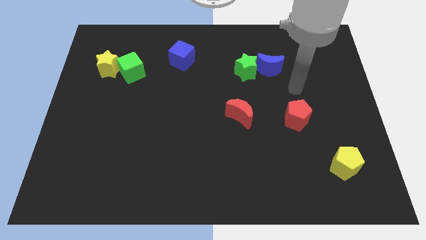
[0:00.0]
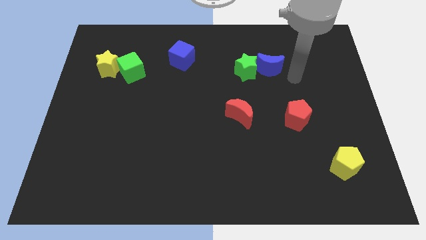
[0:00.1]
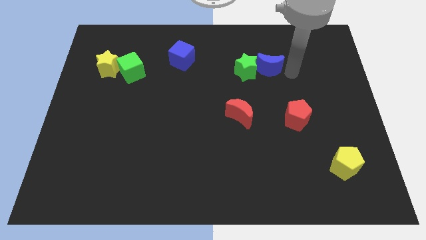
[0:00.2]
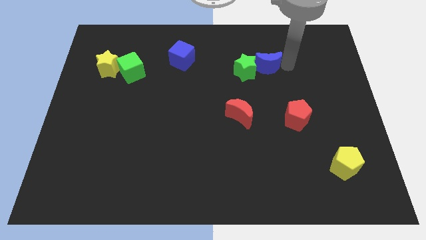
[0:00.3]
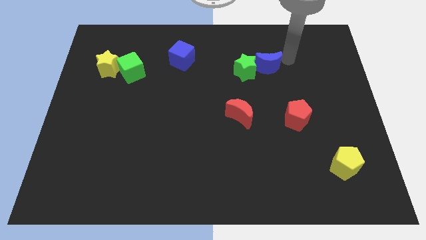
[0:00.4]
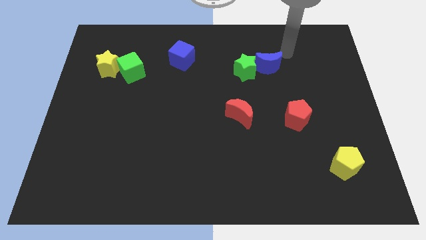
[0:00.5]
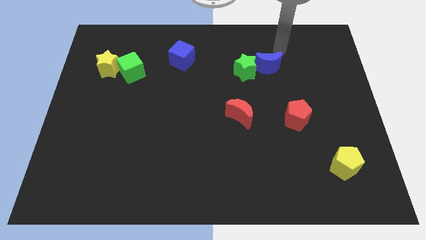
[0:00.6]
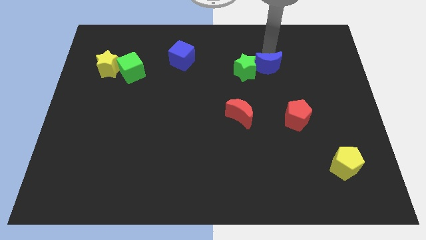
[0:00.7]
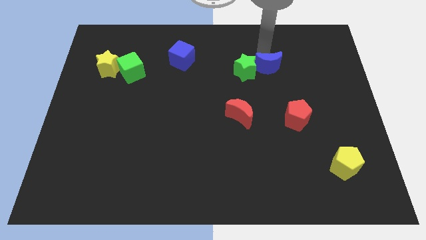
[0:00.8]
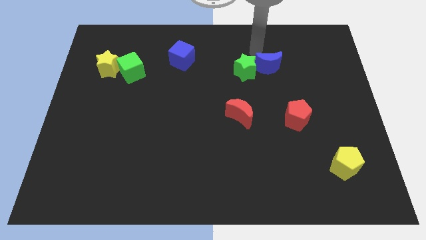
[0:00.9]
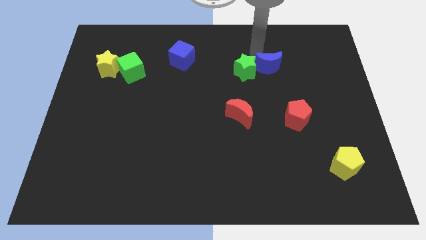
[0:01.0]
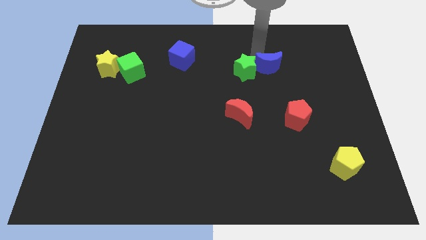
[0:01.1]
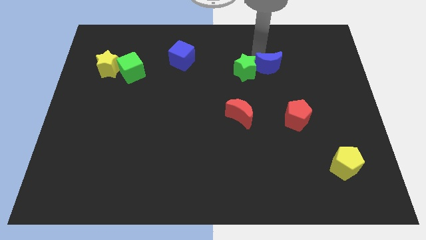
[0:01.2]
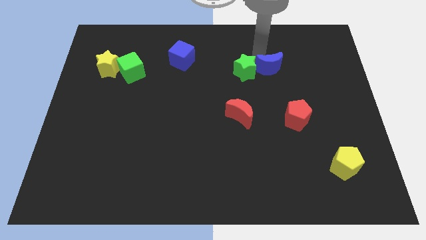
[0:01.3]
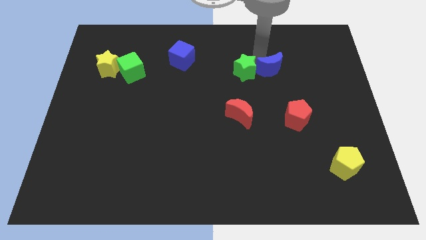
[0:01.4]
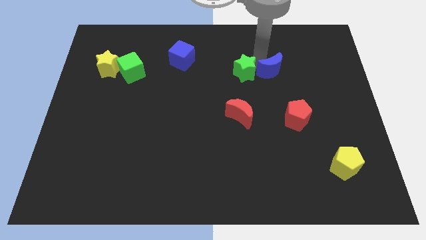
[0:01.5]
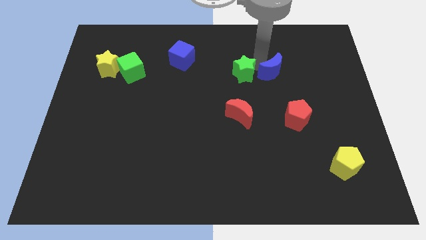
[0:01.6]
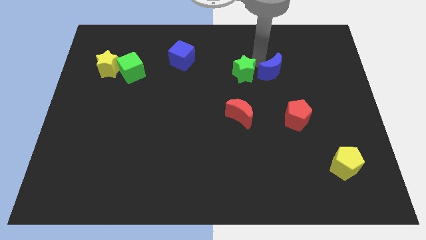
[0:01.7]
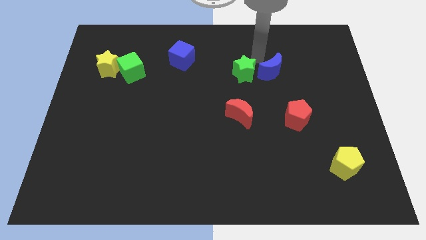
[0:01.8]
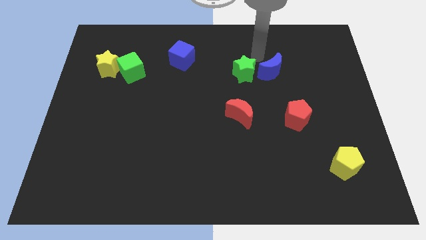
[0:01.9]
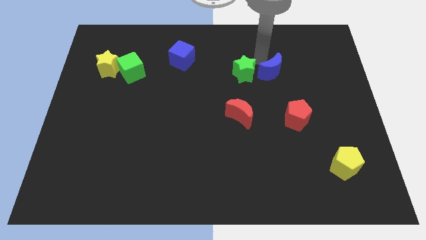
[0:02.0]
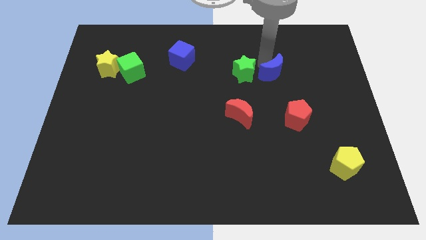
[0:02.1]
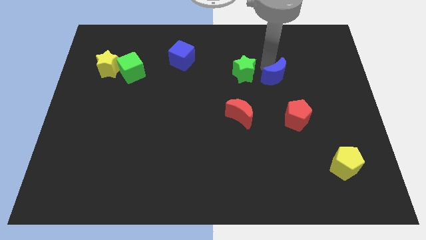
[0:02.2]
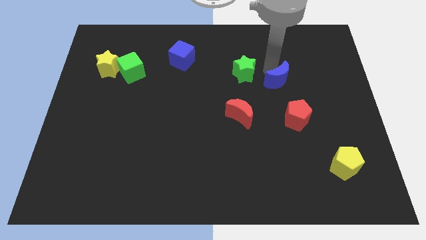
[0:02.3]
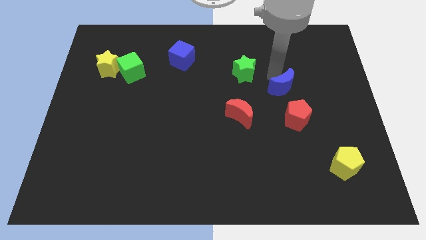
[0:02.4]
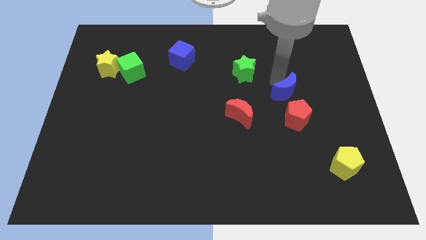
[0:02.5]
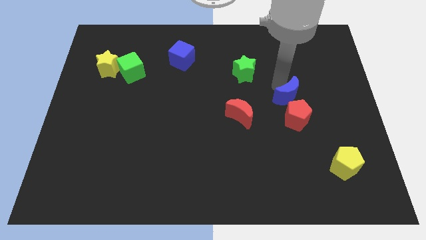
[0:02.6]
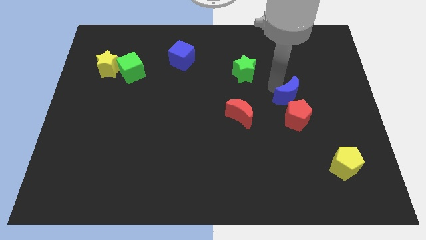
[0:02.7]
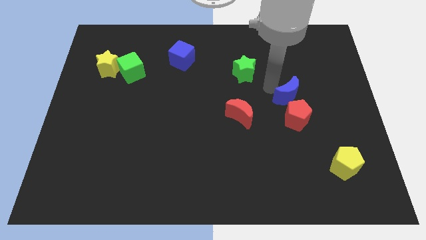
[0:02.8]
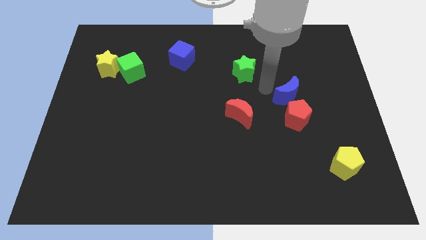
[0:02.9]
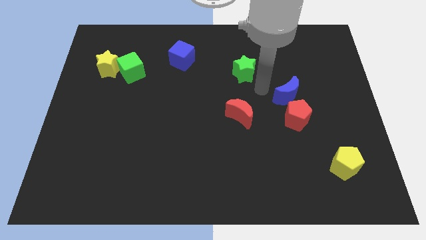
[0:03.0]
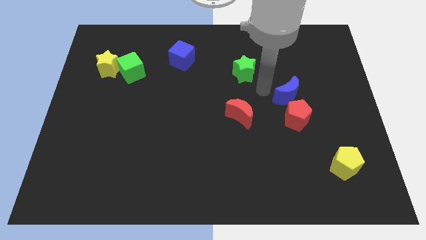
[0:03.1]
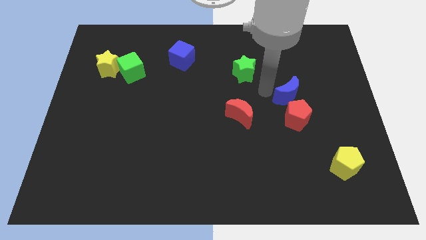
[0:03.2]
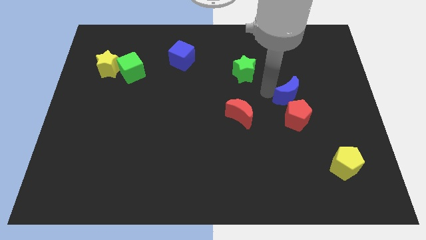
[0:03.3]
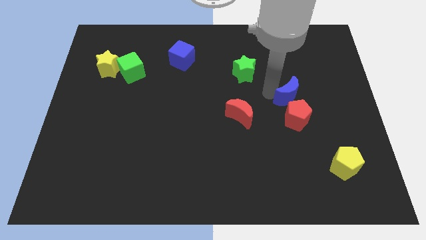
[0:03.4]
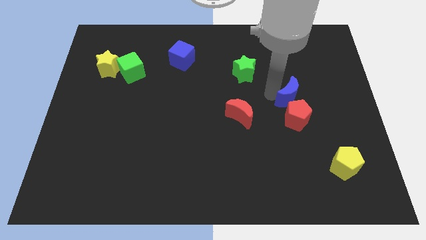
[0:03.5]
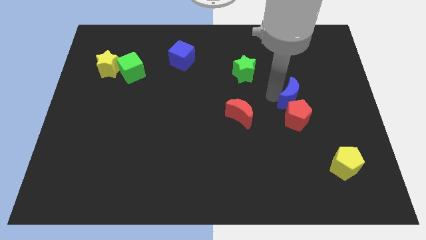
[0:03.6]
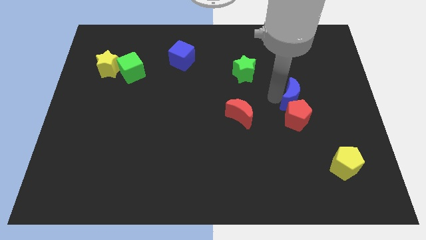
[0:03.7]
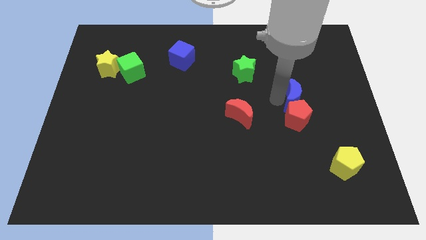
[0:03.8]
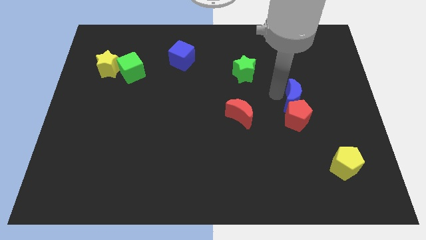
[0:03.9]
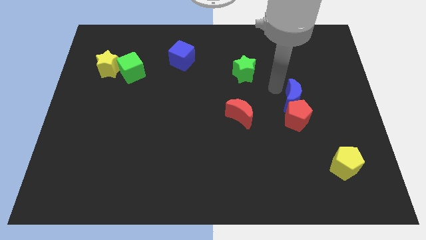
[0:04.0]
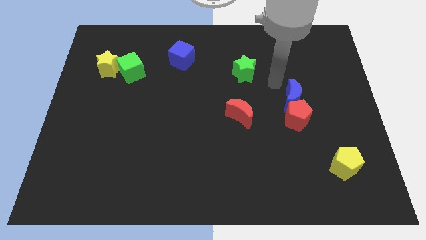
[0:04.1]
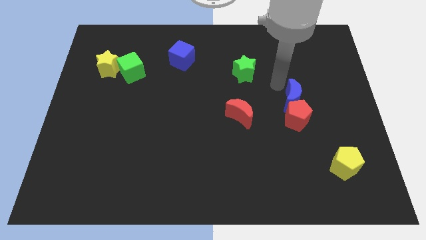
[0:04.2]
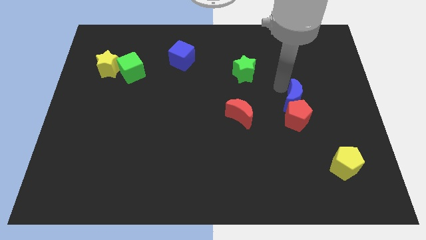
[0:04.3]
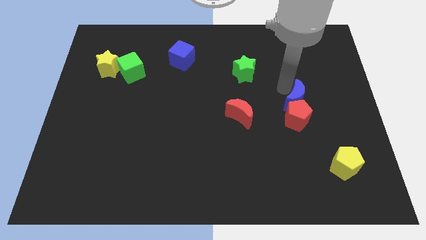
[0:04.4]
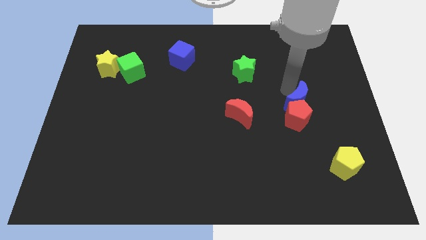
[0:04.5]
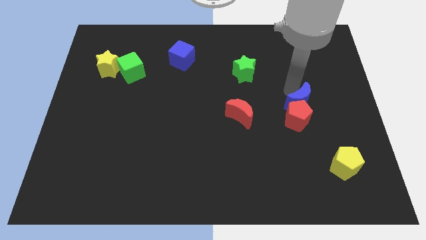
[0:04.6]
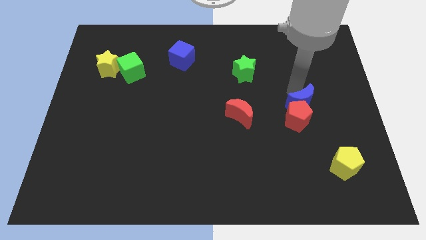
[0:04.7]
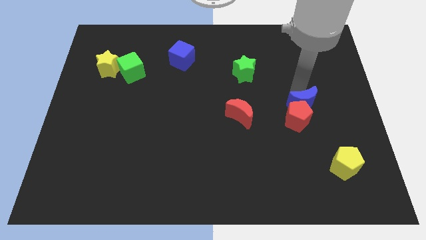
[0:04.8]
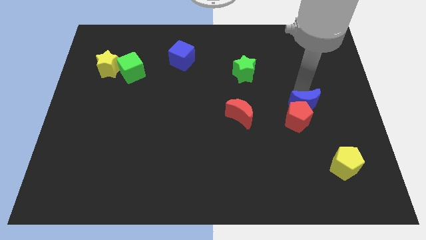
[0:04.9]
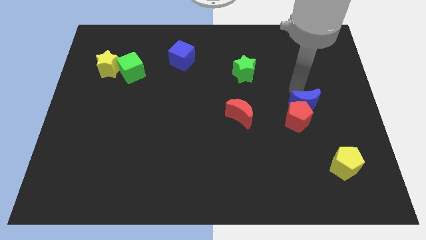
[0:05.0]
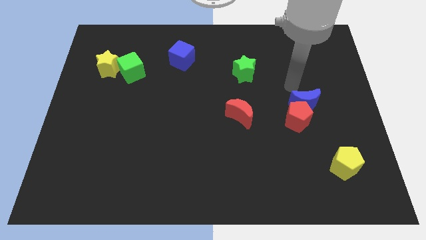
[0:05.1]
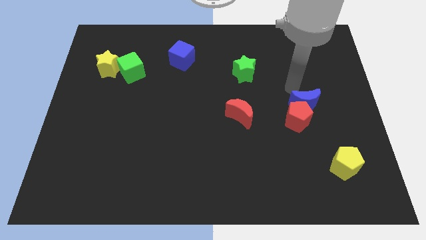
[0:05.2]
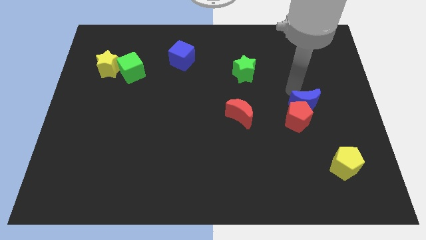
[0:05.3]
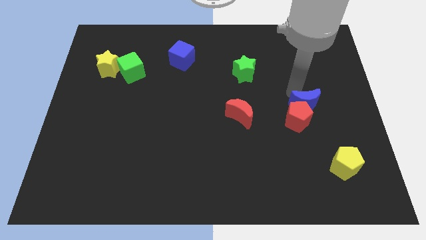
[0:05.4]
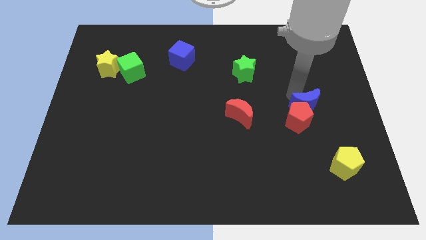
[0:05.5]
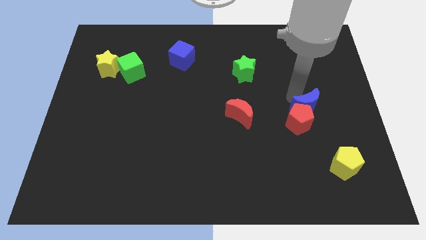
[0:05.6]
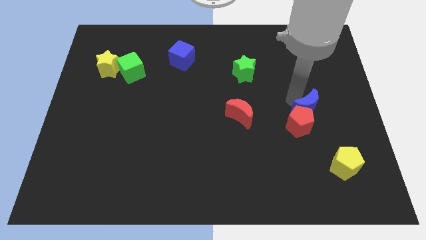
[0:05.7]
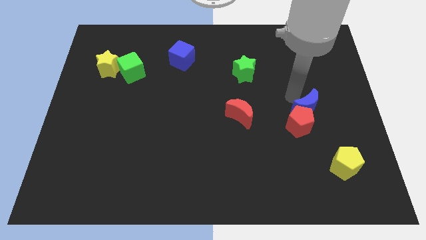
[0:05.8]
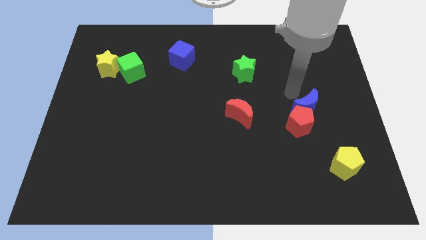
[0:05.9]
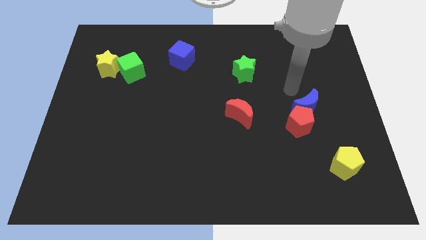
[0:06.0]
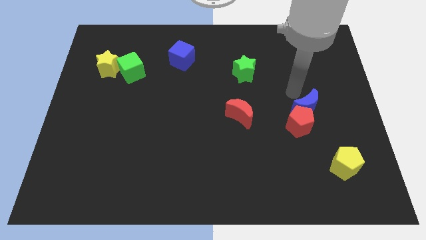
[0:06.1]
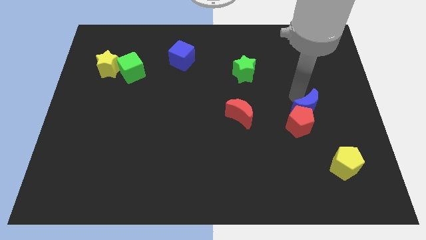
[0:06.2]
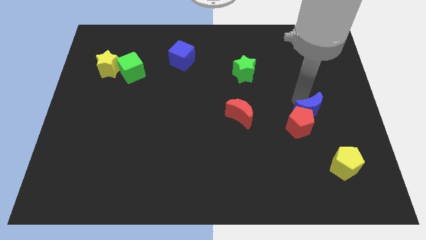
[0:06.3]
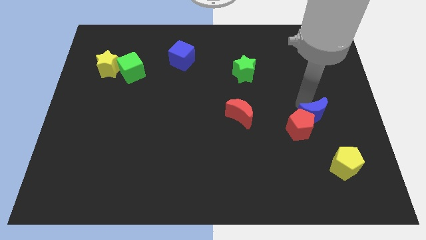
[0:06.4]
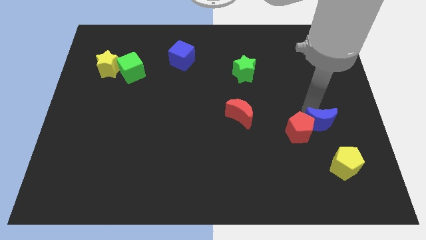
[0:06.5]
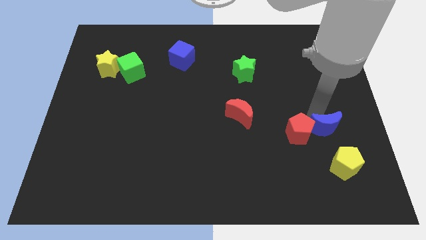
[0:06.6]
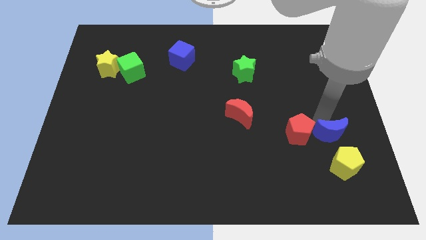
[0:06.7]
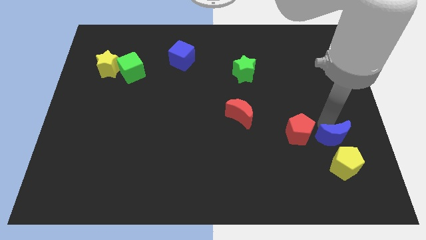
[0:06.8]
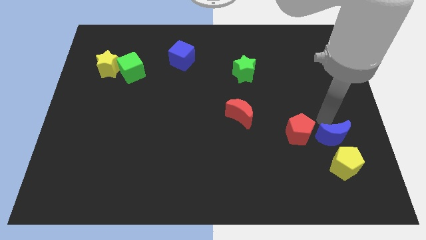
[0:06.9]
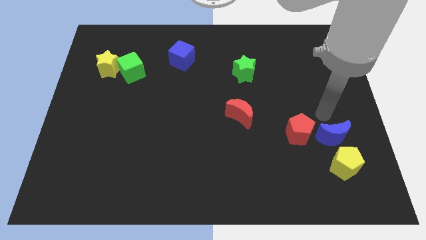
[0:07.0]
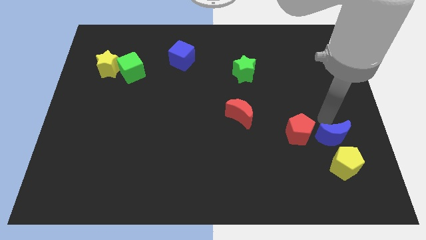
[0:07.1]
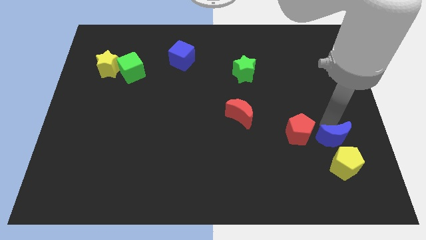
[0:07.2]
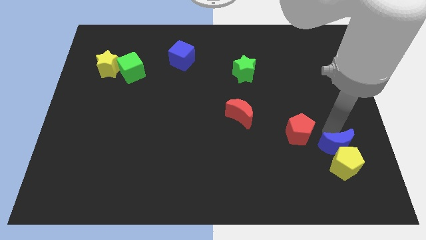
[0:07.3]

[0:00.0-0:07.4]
move the blue moon towards the yellow pentagon
